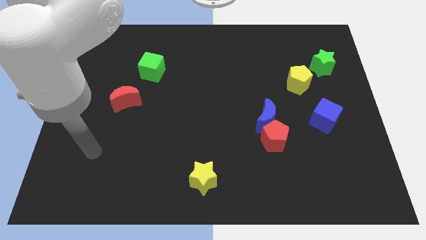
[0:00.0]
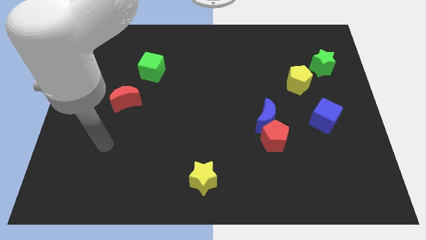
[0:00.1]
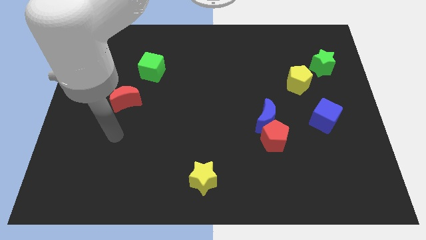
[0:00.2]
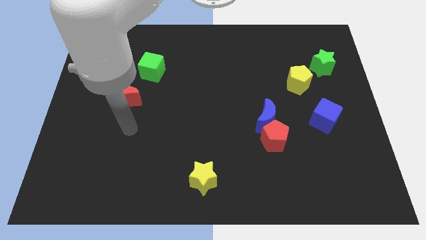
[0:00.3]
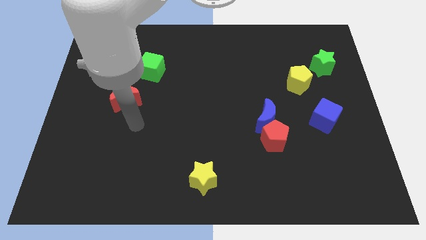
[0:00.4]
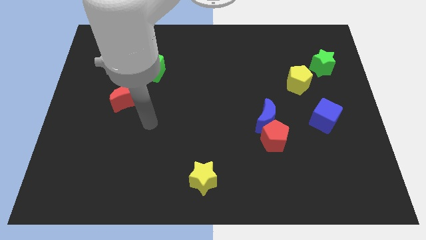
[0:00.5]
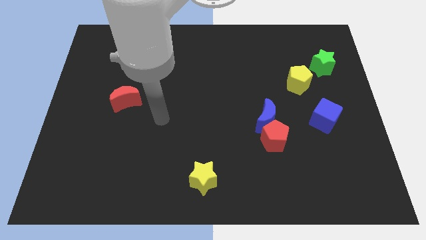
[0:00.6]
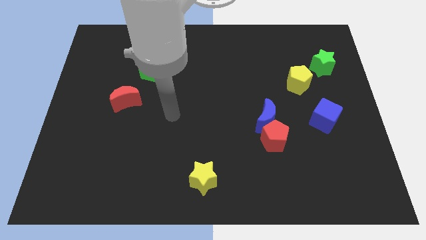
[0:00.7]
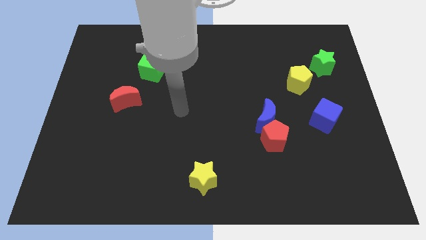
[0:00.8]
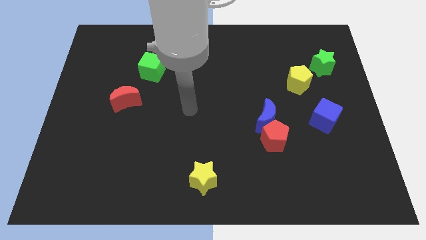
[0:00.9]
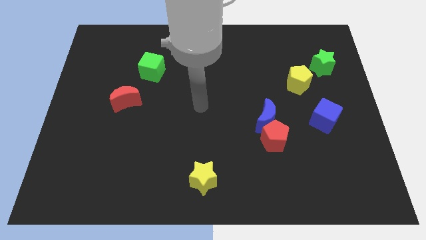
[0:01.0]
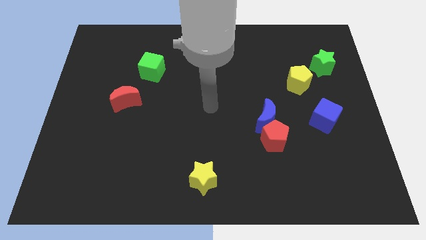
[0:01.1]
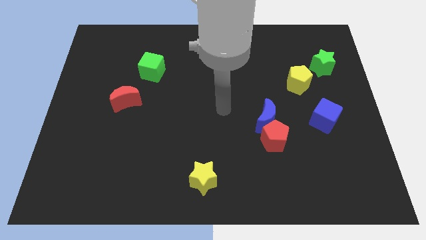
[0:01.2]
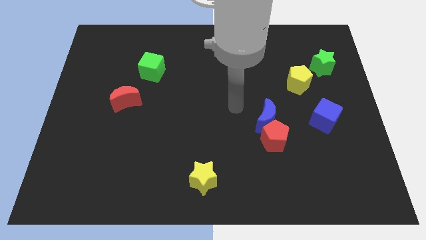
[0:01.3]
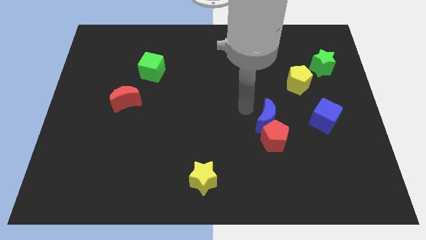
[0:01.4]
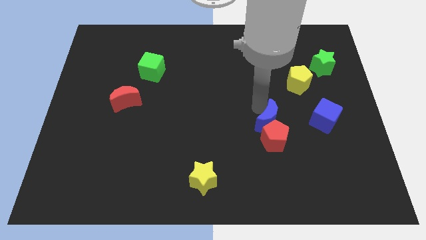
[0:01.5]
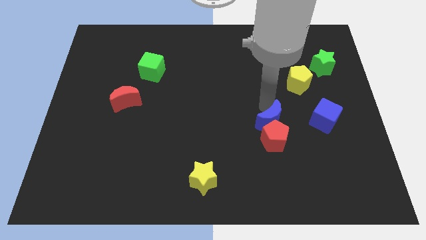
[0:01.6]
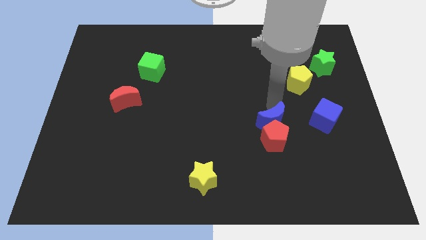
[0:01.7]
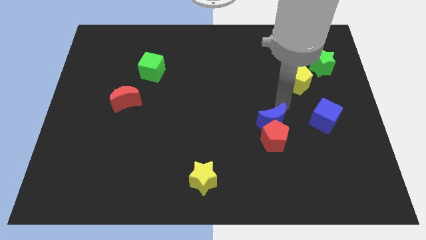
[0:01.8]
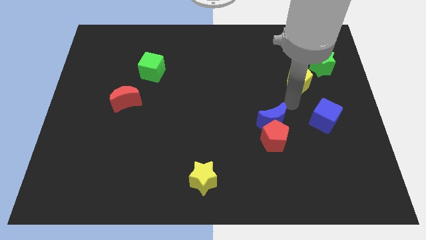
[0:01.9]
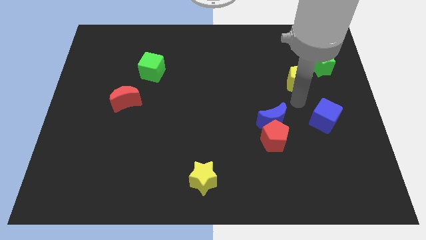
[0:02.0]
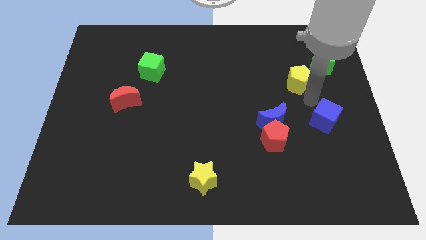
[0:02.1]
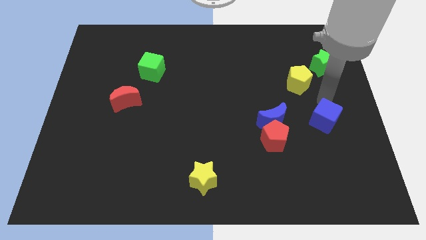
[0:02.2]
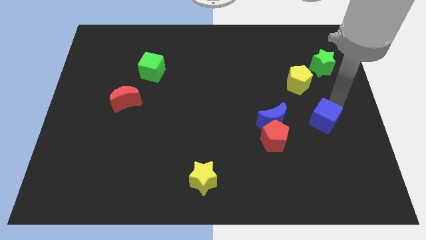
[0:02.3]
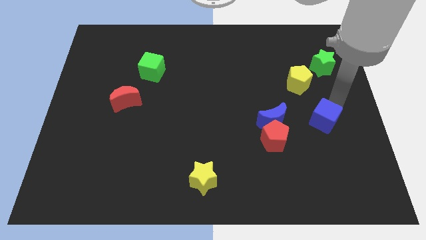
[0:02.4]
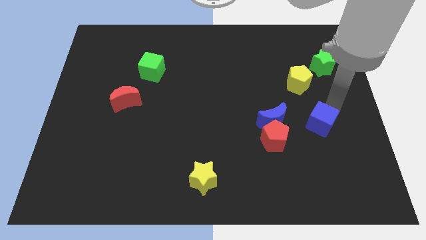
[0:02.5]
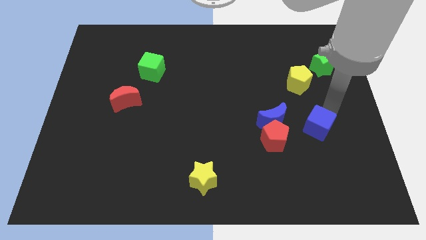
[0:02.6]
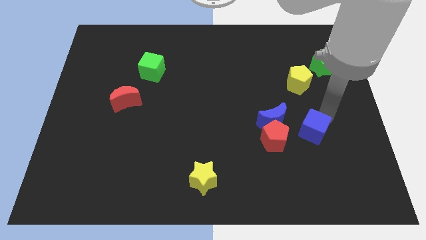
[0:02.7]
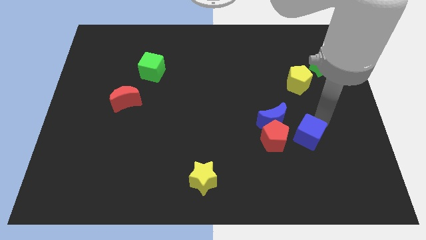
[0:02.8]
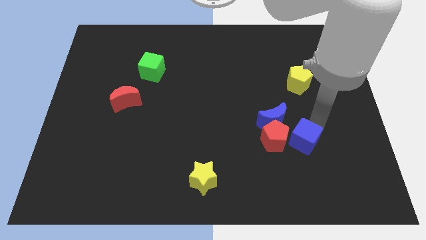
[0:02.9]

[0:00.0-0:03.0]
slide the blue cube down and left slightly

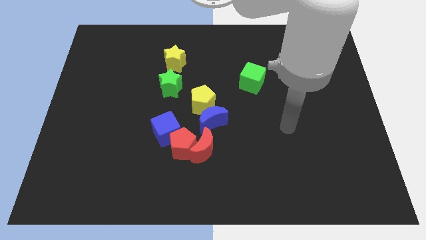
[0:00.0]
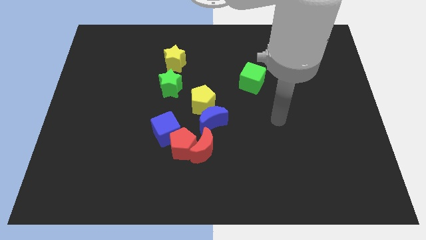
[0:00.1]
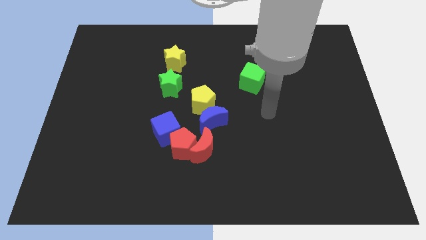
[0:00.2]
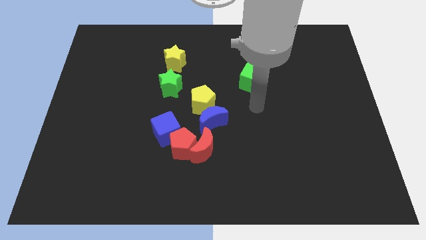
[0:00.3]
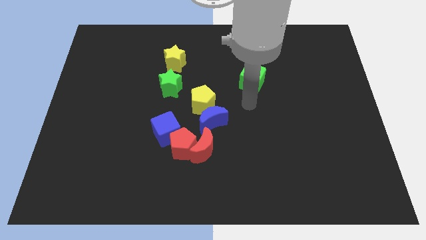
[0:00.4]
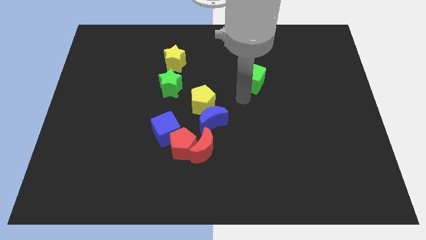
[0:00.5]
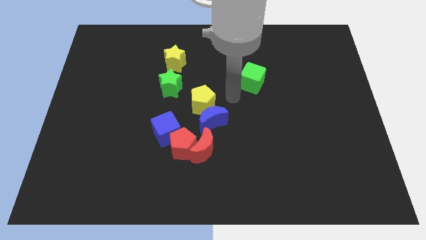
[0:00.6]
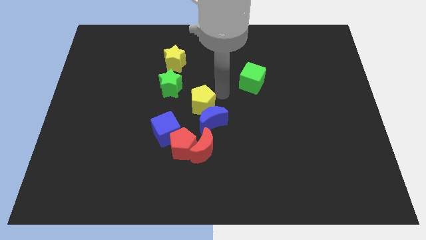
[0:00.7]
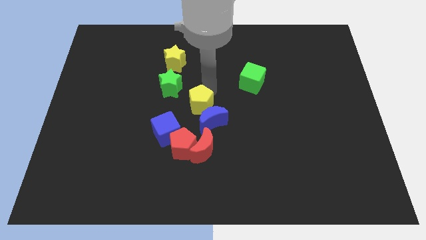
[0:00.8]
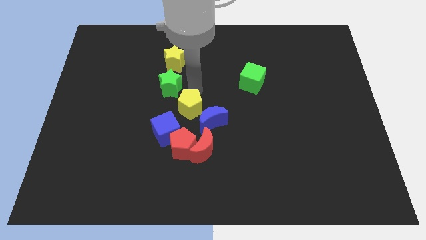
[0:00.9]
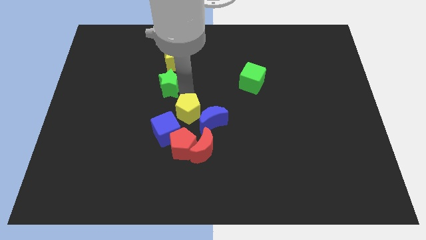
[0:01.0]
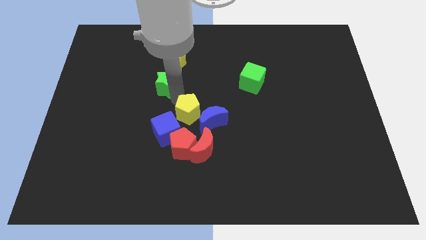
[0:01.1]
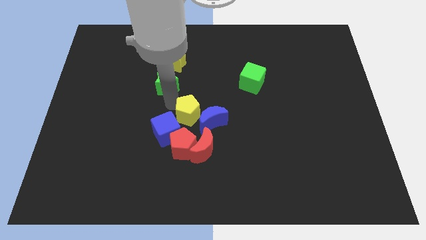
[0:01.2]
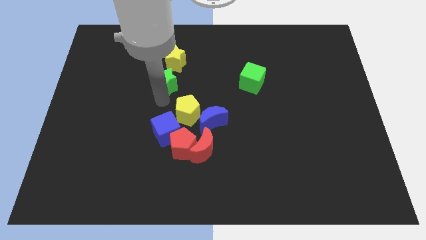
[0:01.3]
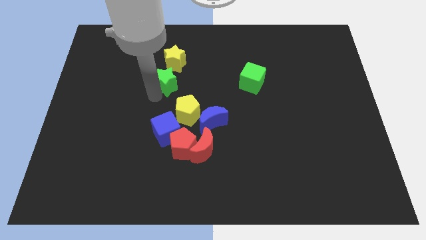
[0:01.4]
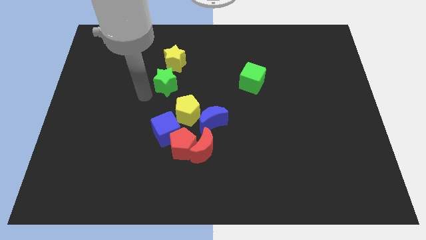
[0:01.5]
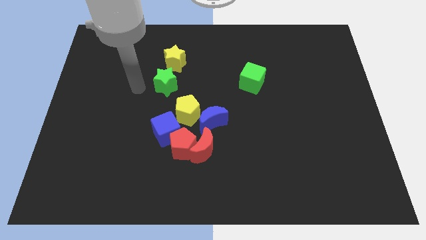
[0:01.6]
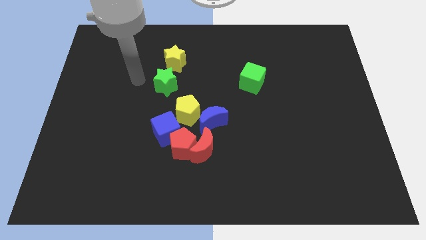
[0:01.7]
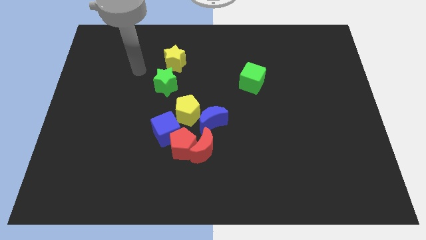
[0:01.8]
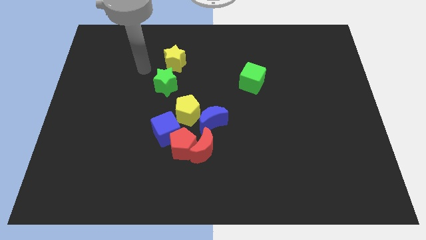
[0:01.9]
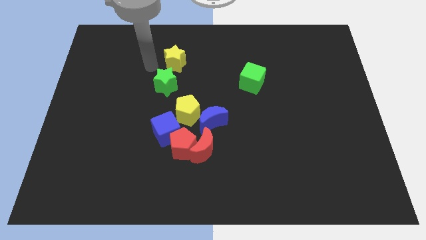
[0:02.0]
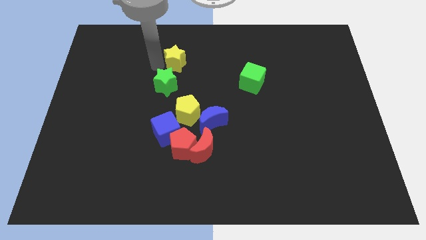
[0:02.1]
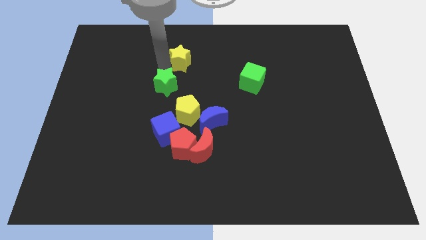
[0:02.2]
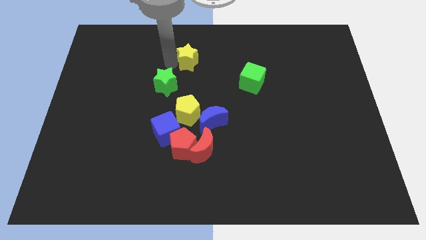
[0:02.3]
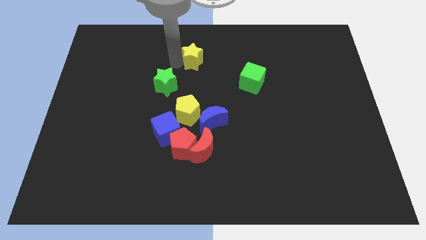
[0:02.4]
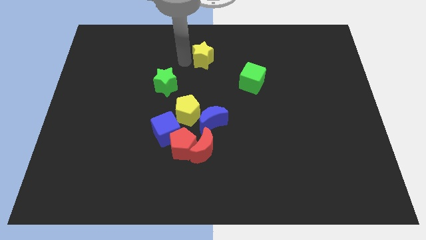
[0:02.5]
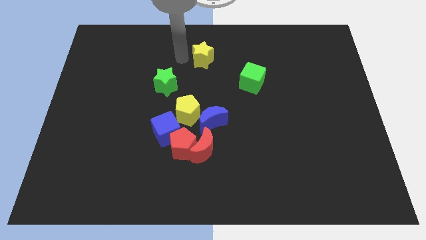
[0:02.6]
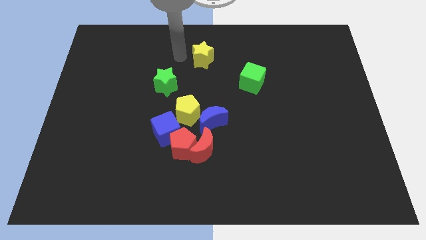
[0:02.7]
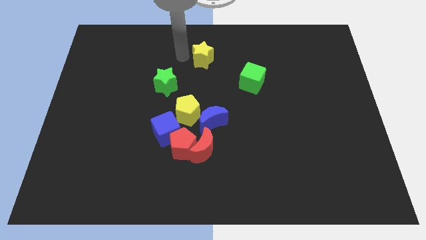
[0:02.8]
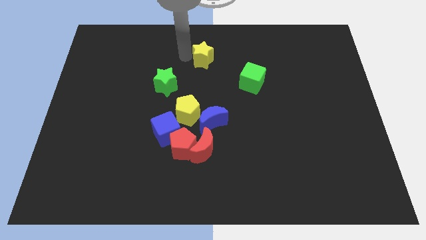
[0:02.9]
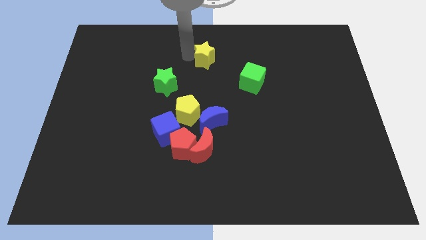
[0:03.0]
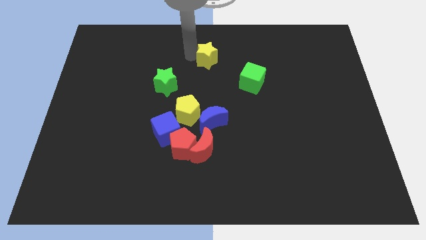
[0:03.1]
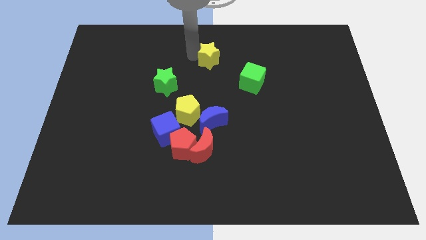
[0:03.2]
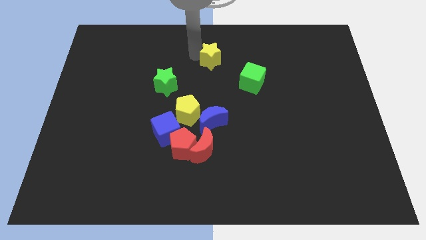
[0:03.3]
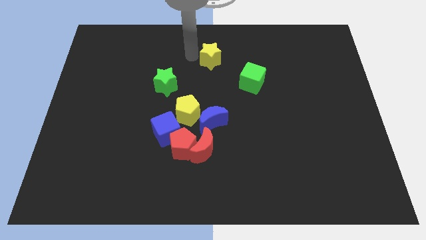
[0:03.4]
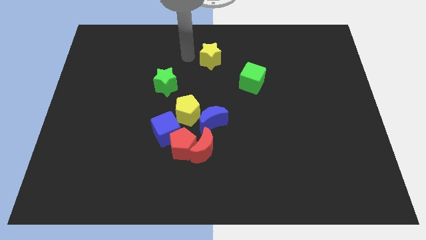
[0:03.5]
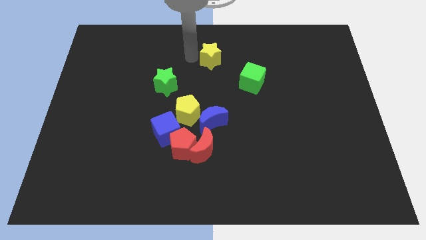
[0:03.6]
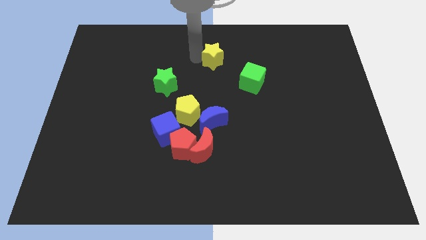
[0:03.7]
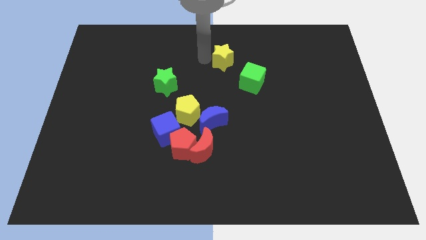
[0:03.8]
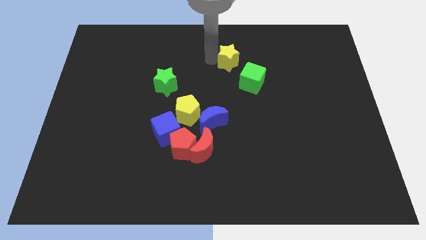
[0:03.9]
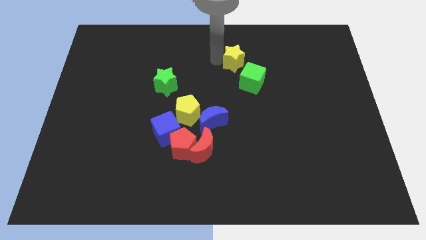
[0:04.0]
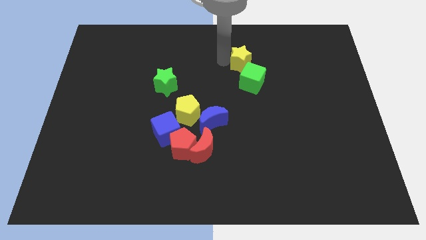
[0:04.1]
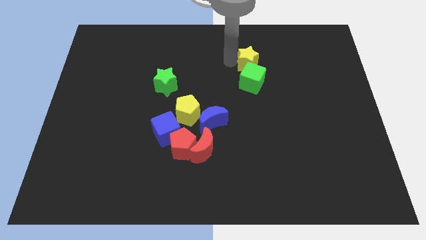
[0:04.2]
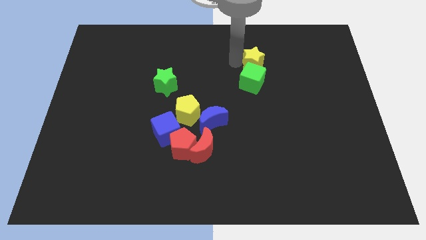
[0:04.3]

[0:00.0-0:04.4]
slide the yellow star to the right

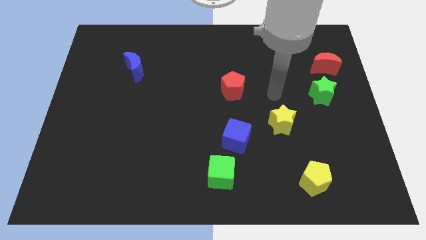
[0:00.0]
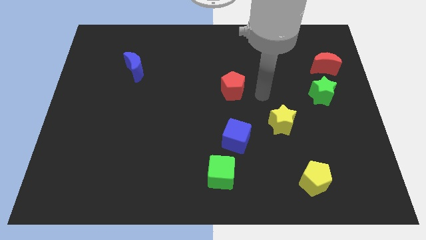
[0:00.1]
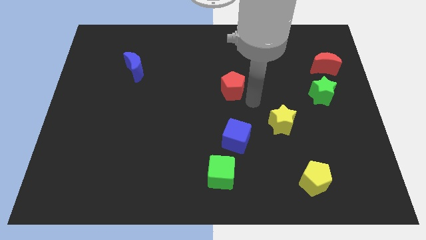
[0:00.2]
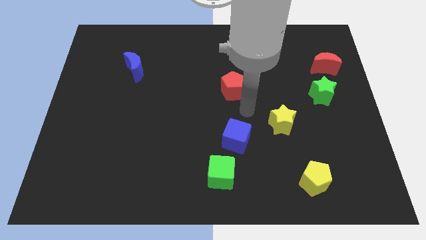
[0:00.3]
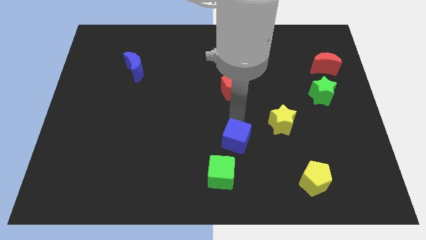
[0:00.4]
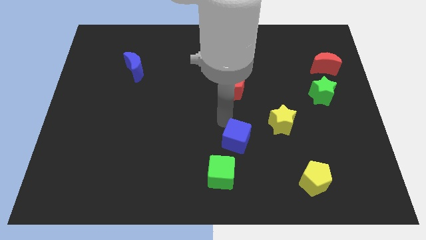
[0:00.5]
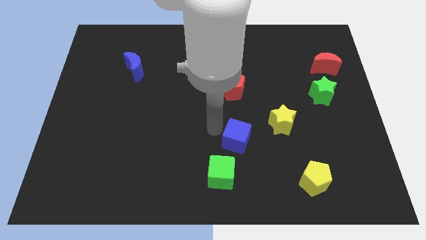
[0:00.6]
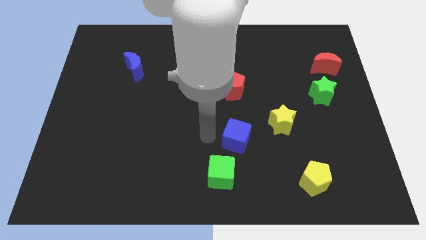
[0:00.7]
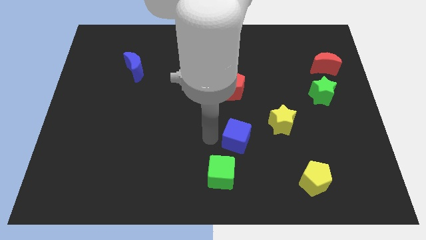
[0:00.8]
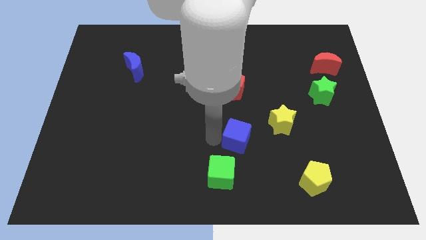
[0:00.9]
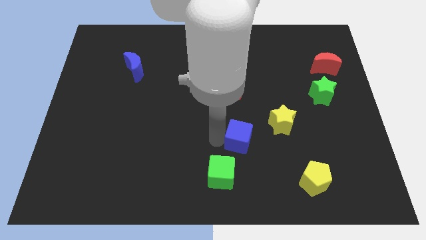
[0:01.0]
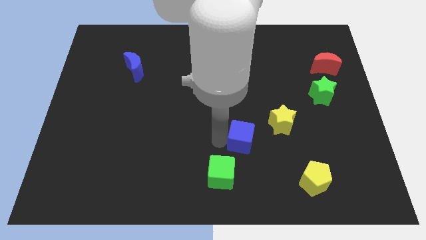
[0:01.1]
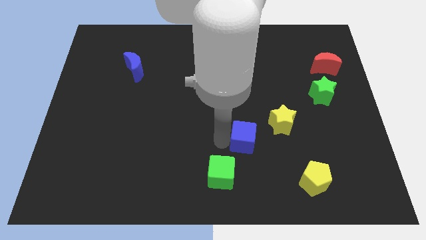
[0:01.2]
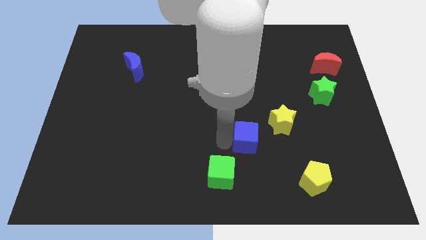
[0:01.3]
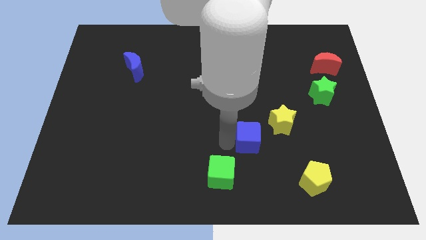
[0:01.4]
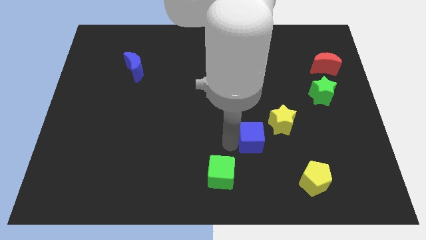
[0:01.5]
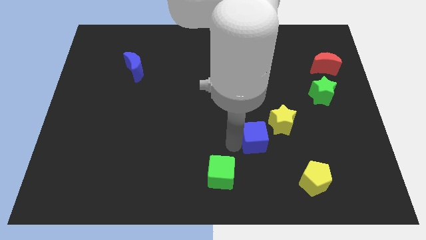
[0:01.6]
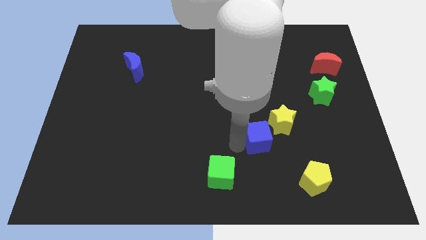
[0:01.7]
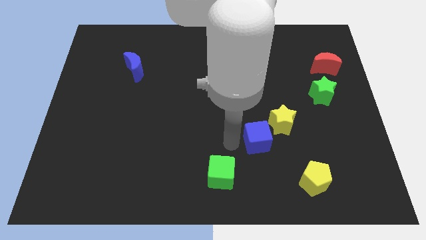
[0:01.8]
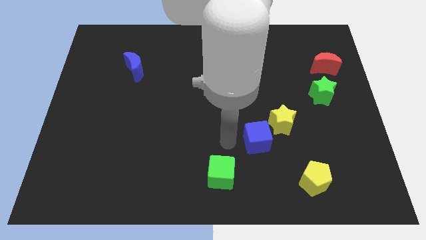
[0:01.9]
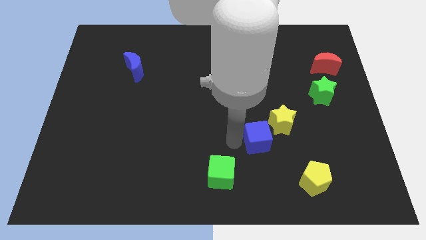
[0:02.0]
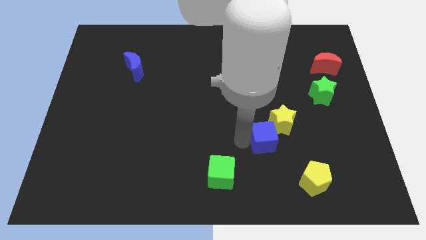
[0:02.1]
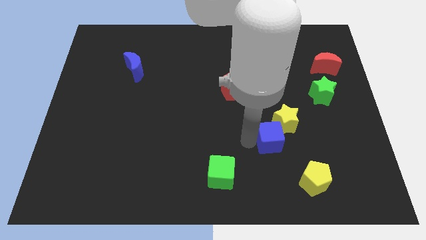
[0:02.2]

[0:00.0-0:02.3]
slightly slide the blue cube to the right
